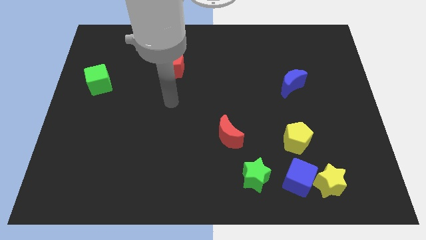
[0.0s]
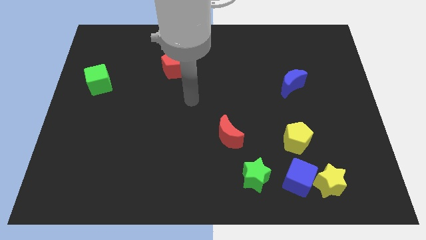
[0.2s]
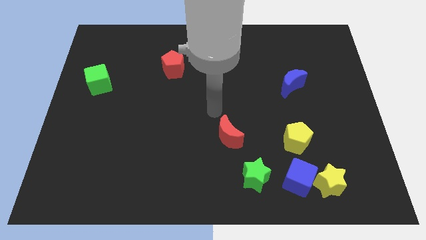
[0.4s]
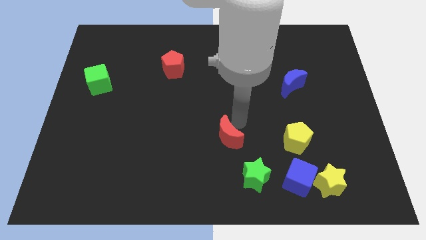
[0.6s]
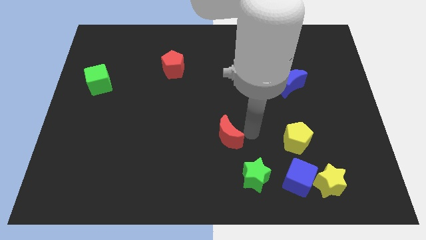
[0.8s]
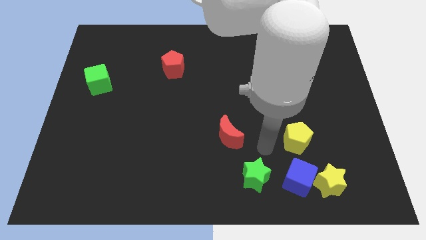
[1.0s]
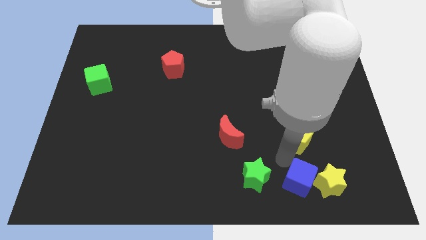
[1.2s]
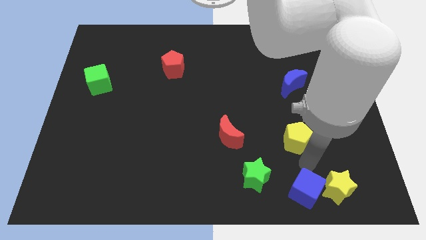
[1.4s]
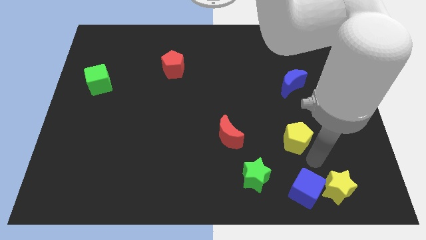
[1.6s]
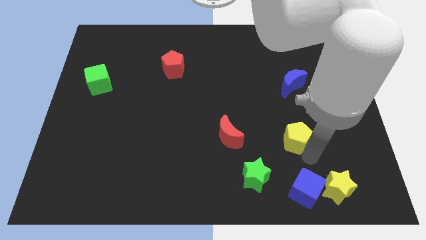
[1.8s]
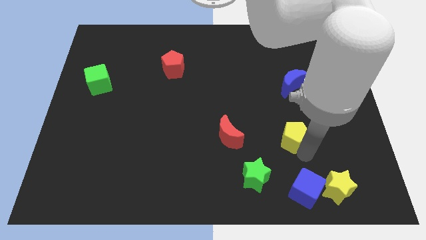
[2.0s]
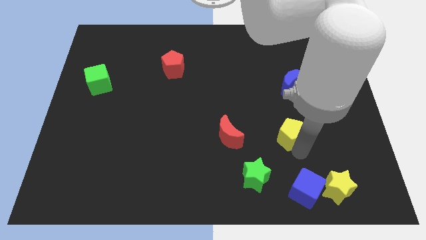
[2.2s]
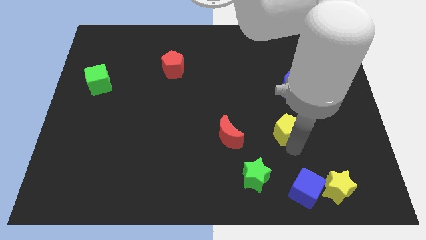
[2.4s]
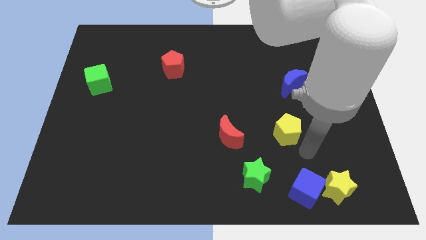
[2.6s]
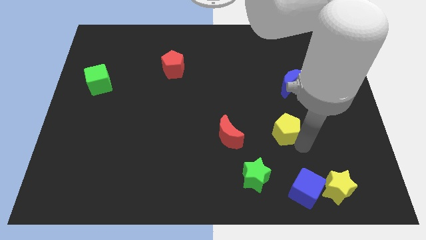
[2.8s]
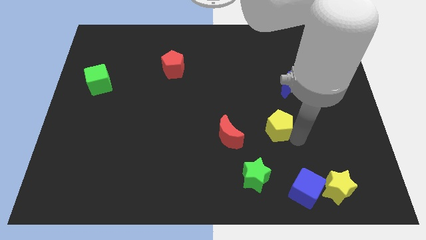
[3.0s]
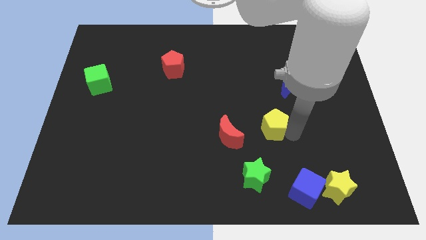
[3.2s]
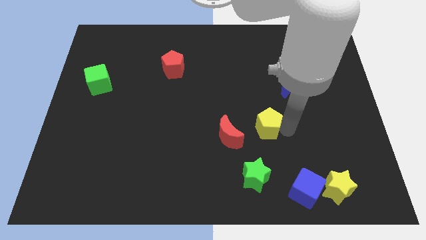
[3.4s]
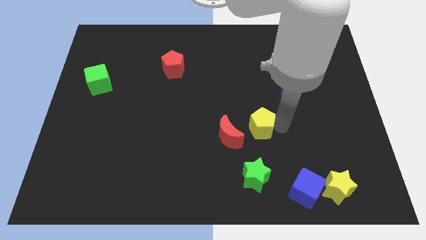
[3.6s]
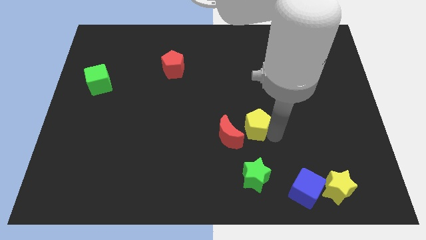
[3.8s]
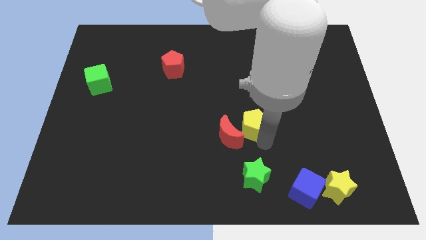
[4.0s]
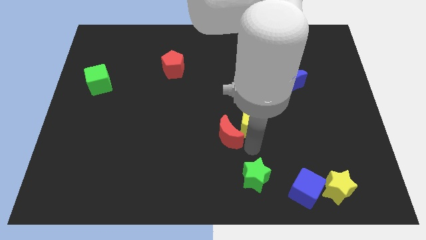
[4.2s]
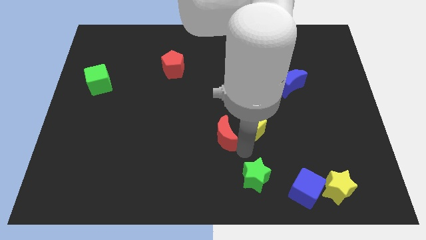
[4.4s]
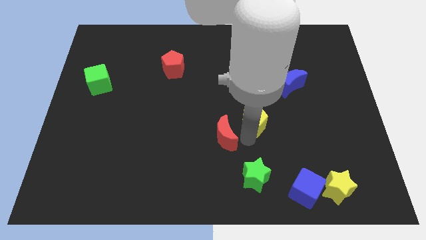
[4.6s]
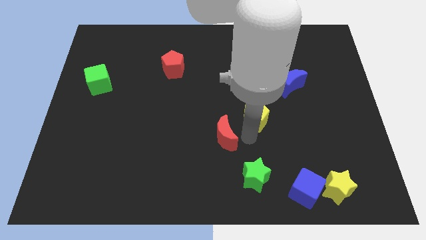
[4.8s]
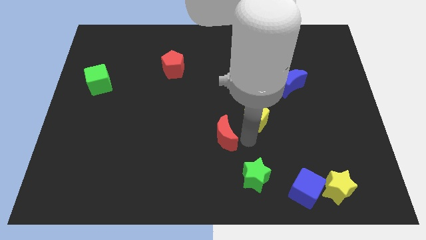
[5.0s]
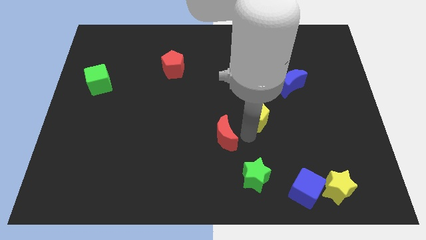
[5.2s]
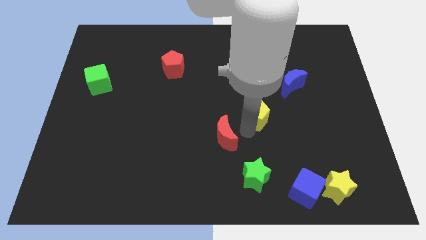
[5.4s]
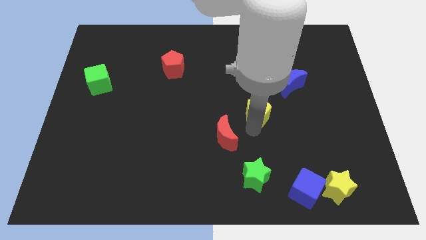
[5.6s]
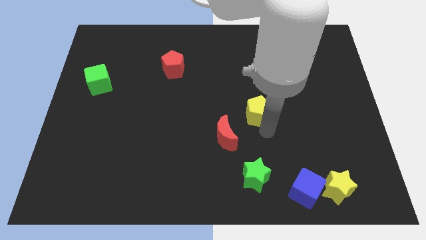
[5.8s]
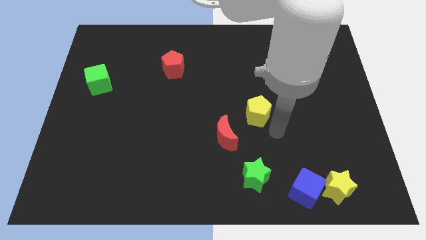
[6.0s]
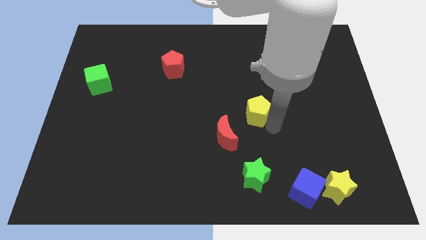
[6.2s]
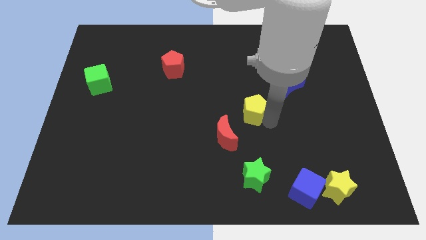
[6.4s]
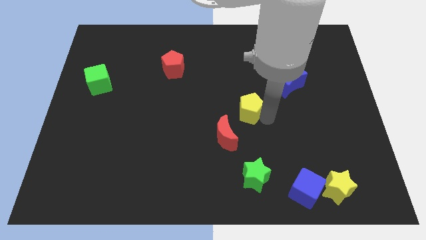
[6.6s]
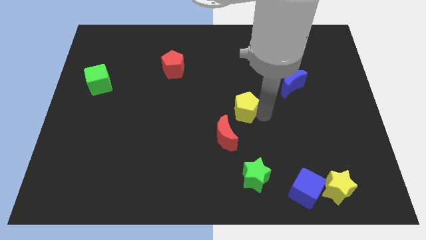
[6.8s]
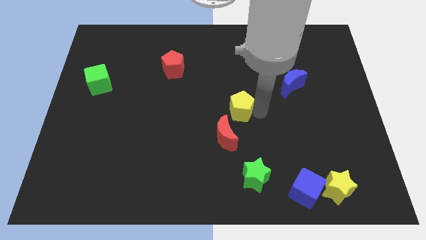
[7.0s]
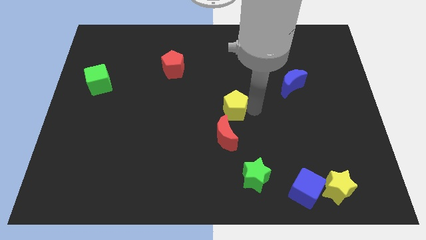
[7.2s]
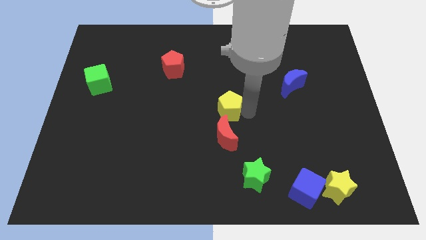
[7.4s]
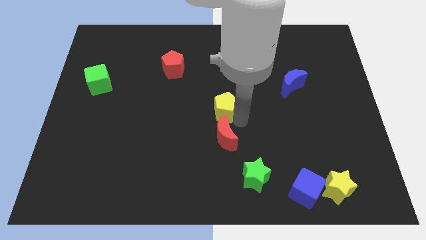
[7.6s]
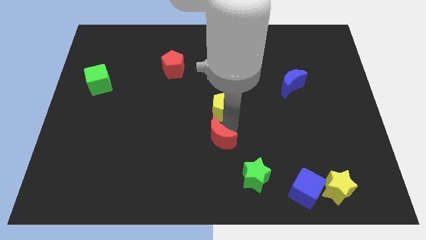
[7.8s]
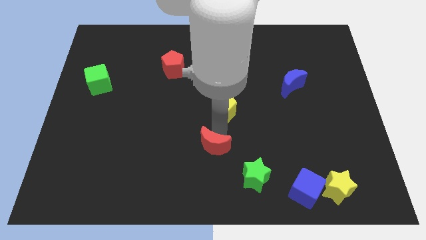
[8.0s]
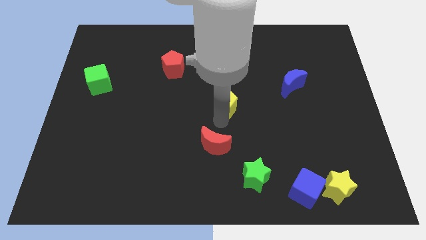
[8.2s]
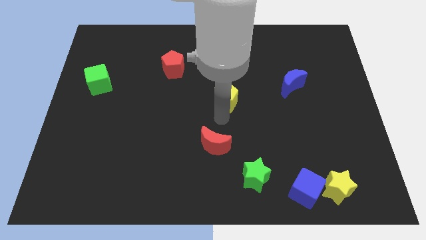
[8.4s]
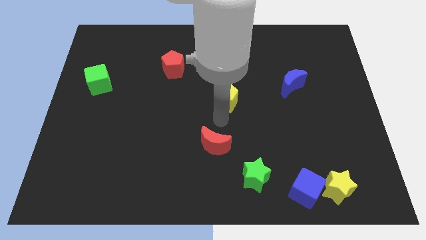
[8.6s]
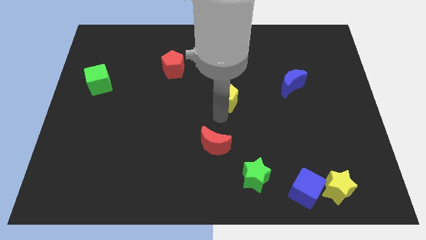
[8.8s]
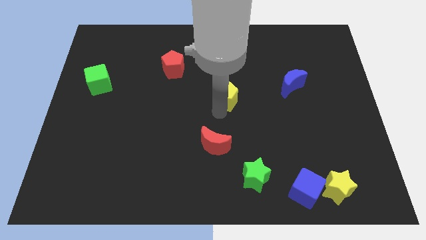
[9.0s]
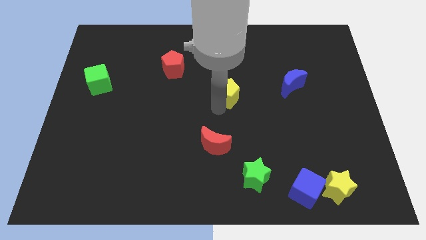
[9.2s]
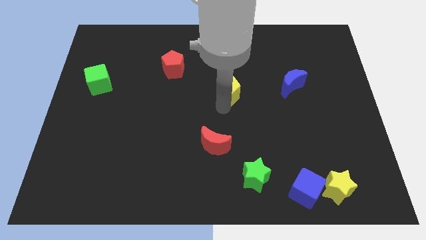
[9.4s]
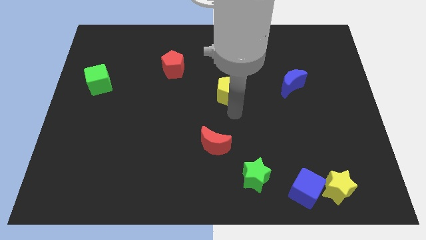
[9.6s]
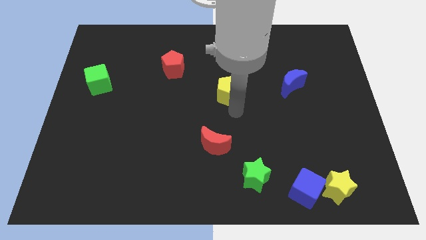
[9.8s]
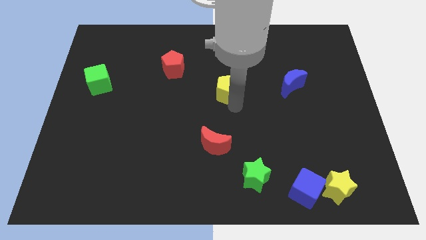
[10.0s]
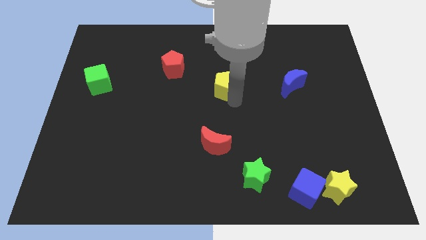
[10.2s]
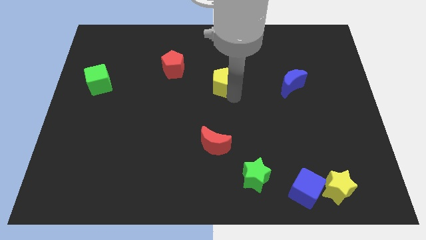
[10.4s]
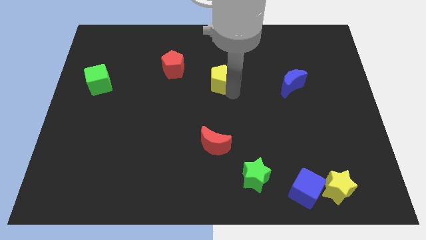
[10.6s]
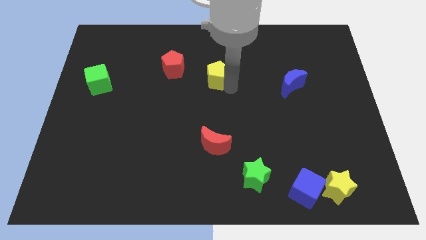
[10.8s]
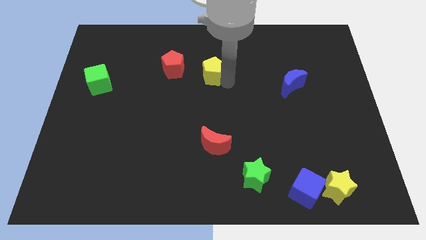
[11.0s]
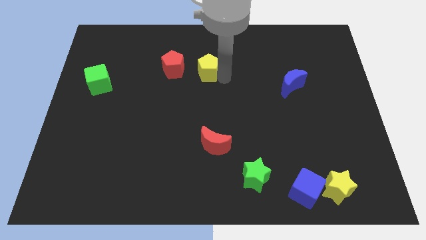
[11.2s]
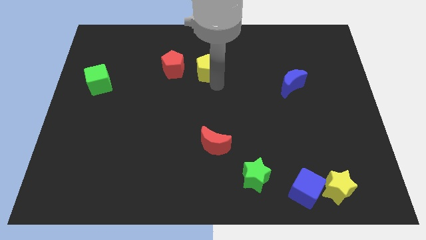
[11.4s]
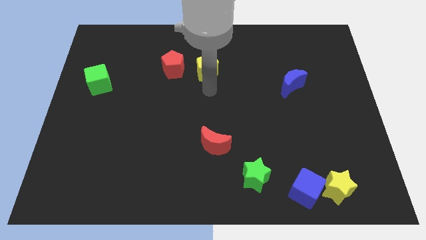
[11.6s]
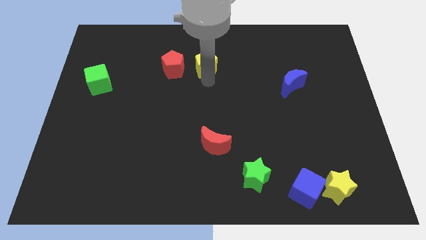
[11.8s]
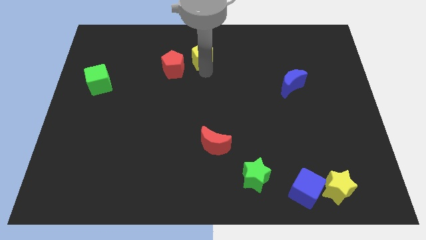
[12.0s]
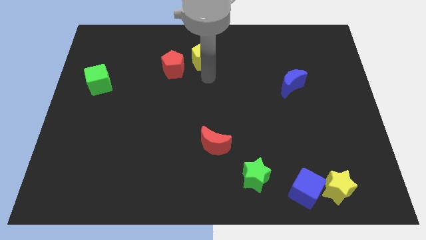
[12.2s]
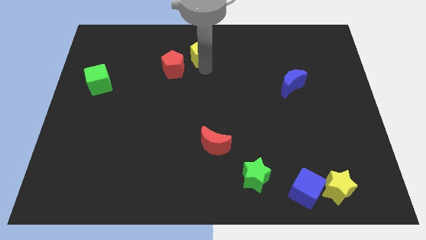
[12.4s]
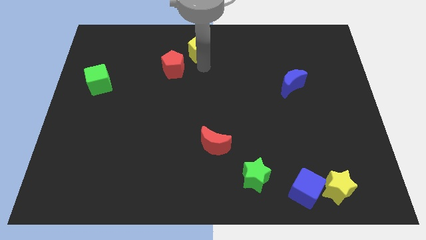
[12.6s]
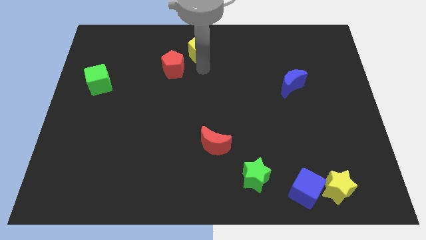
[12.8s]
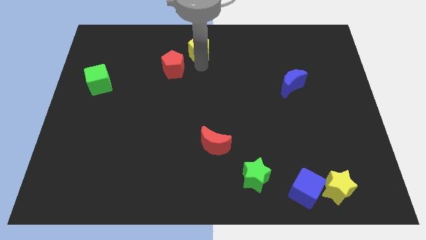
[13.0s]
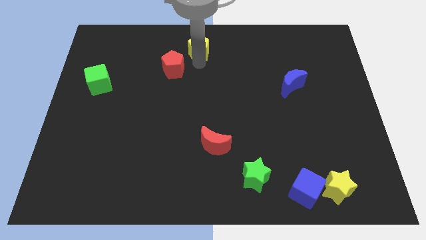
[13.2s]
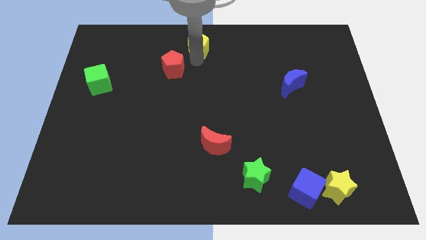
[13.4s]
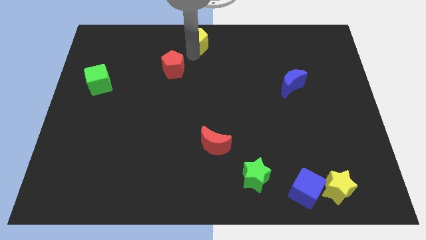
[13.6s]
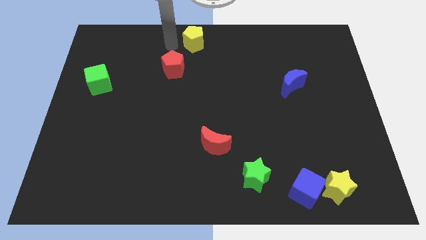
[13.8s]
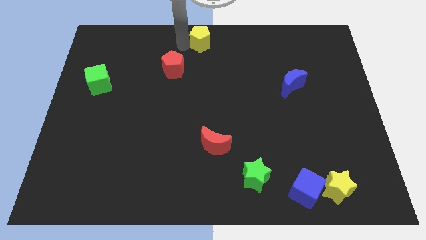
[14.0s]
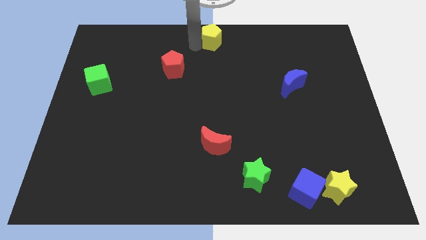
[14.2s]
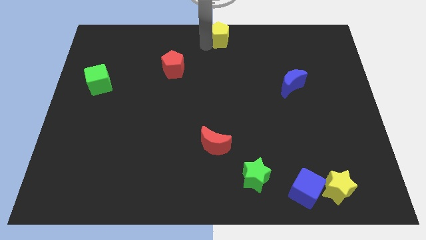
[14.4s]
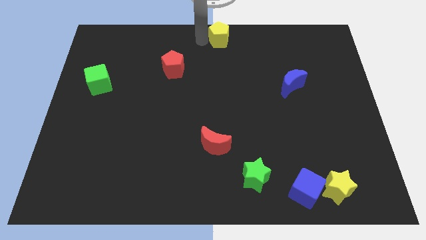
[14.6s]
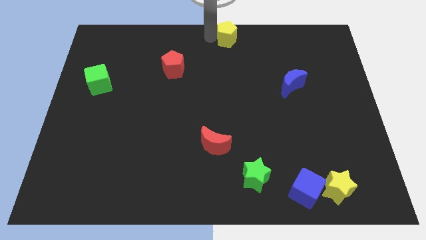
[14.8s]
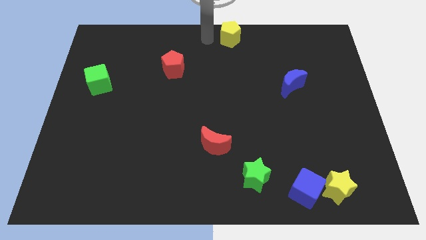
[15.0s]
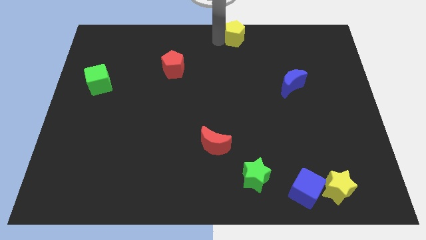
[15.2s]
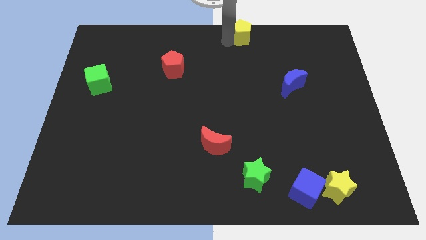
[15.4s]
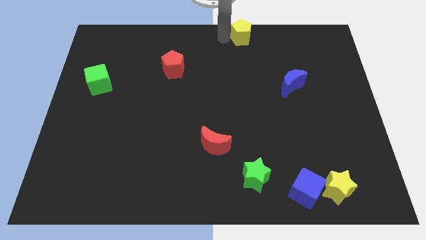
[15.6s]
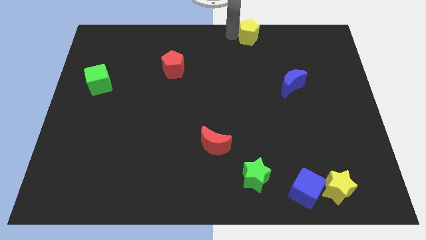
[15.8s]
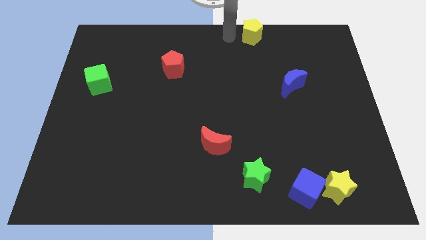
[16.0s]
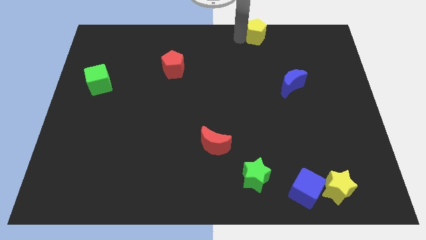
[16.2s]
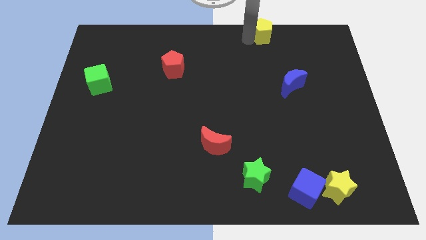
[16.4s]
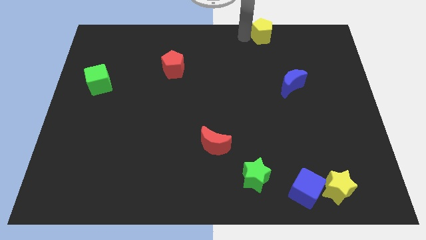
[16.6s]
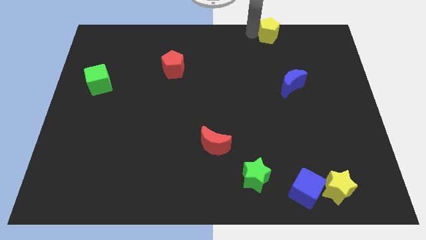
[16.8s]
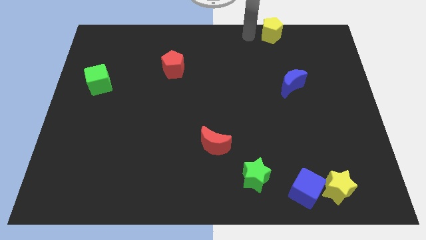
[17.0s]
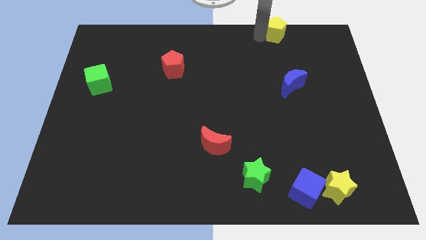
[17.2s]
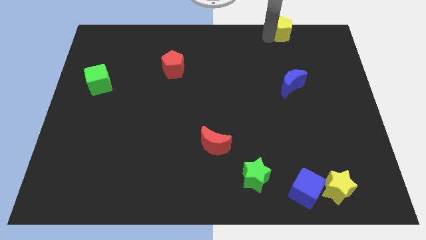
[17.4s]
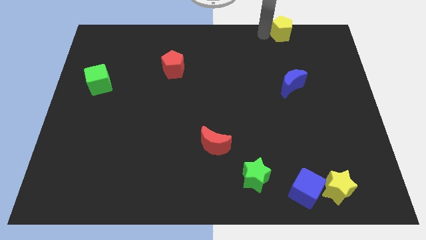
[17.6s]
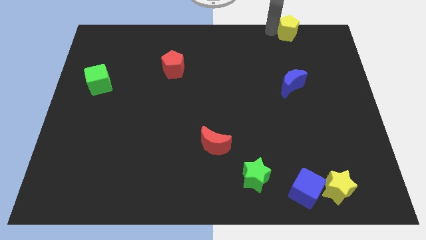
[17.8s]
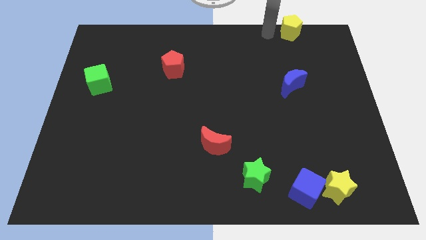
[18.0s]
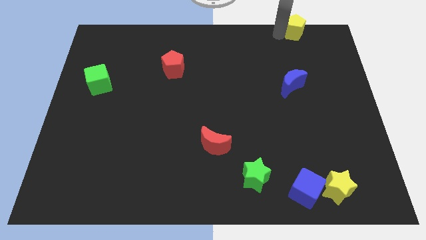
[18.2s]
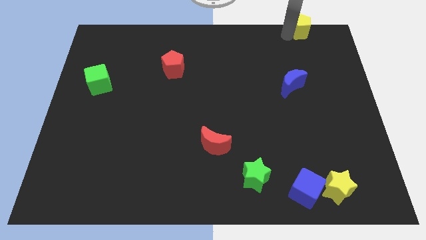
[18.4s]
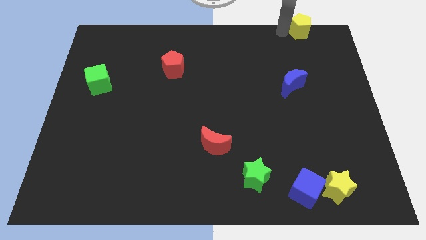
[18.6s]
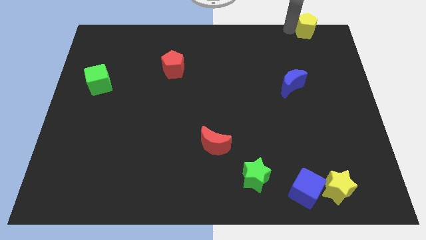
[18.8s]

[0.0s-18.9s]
push the yellow pentagon to the upper right corner
